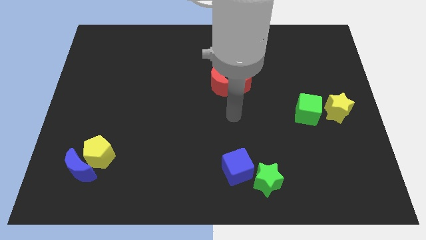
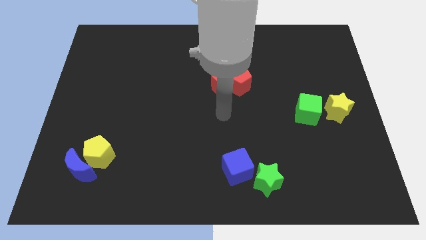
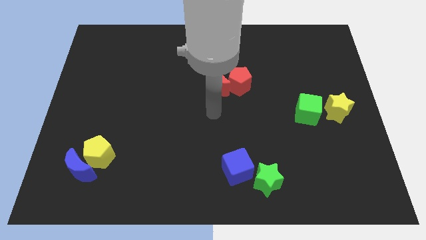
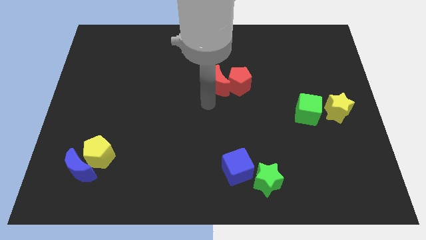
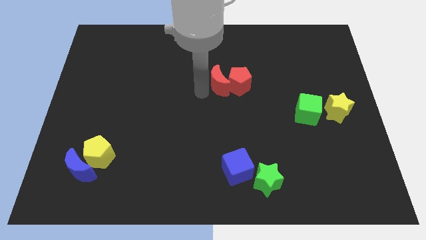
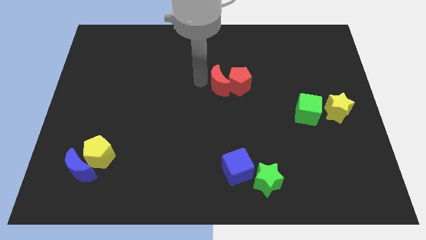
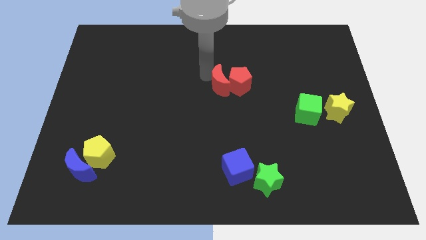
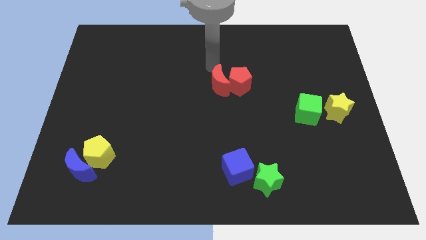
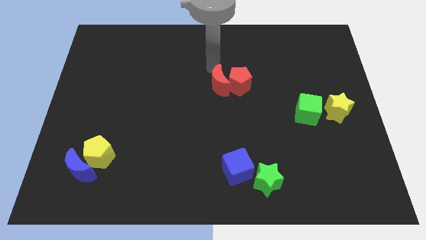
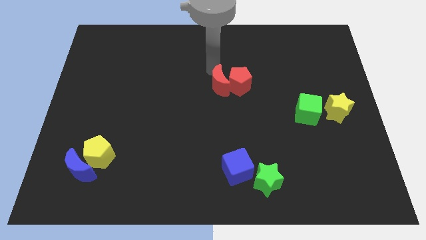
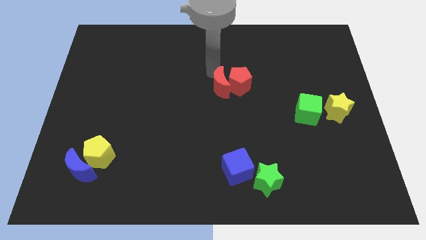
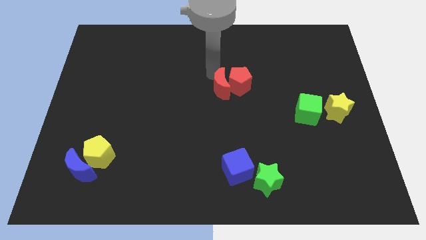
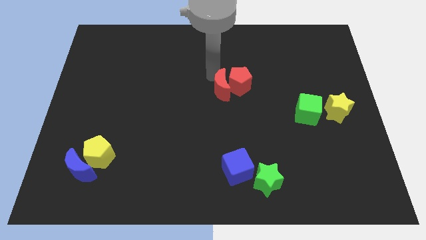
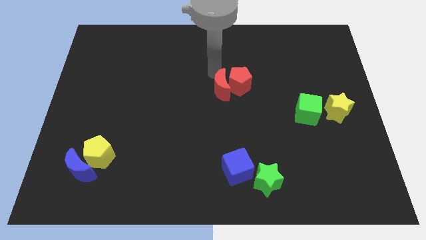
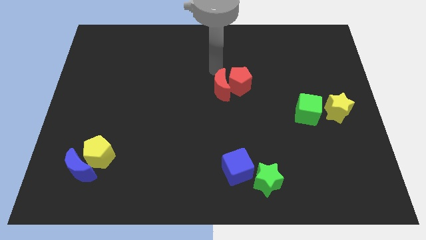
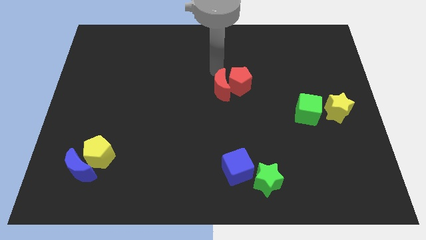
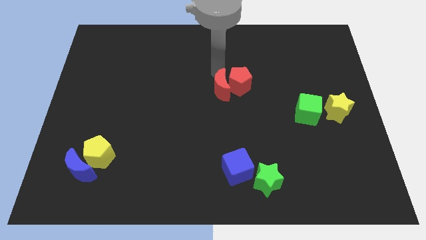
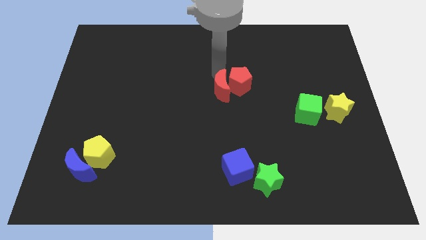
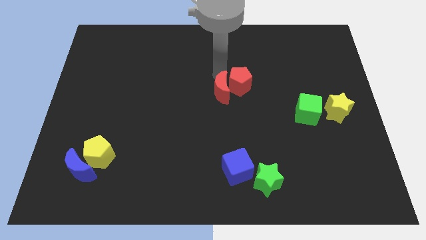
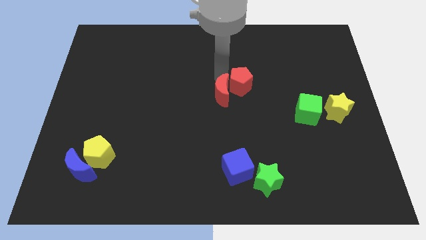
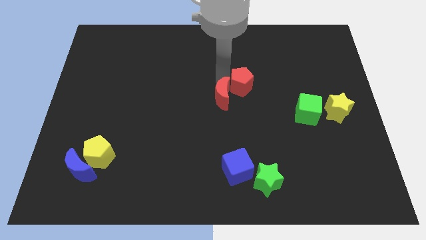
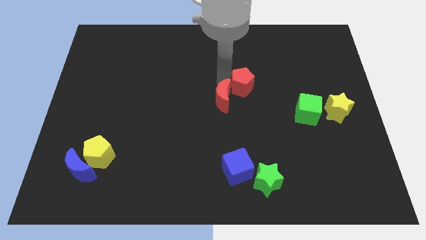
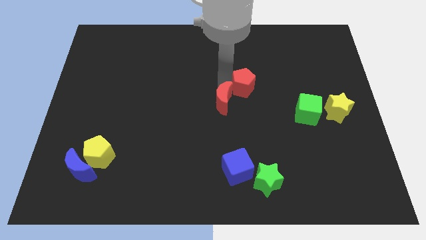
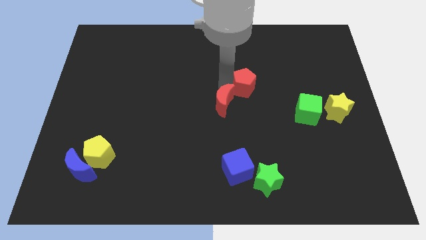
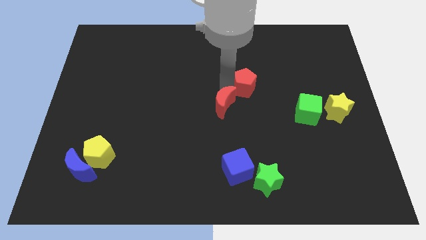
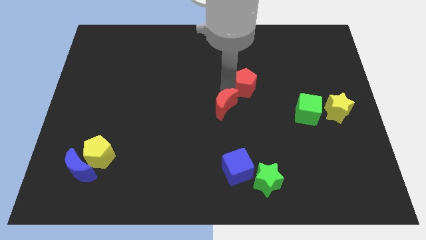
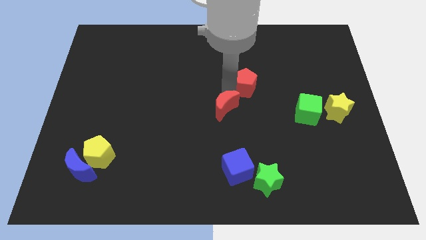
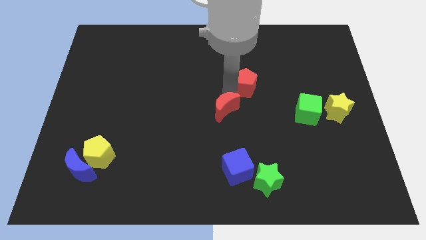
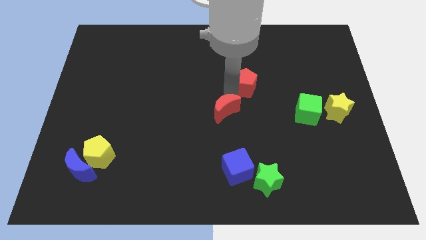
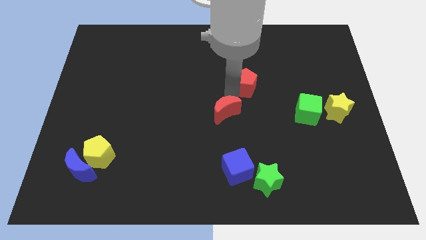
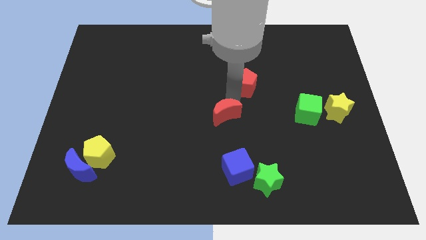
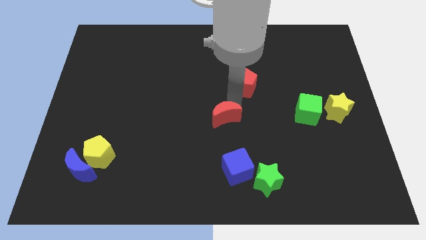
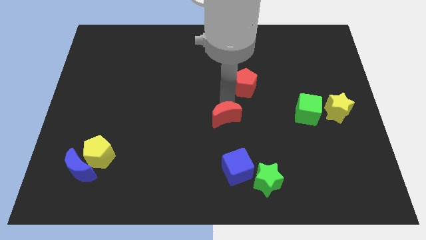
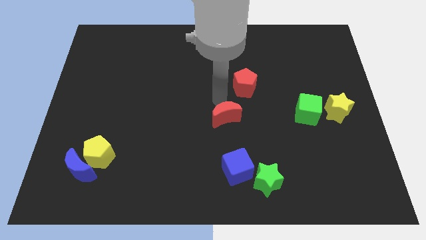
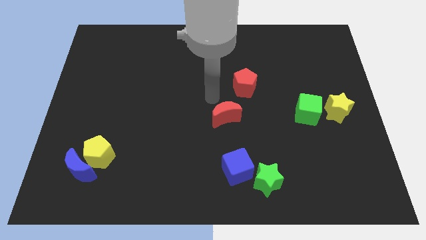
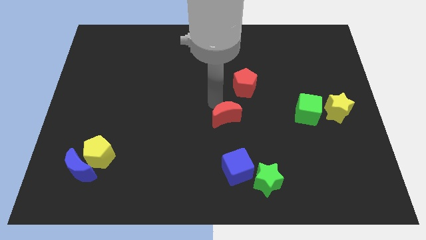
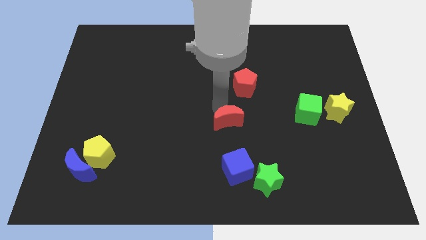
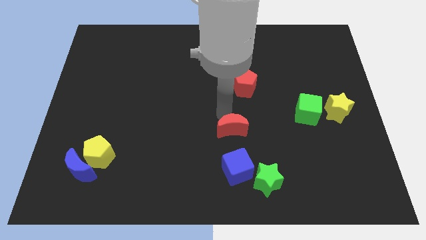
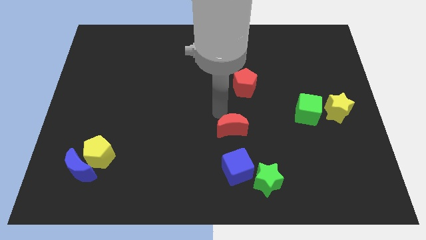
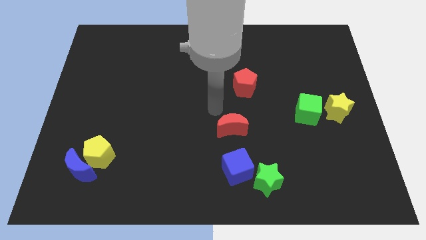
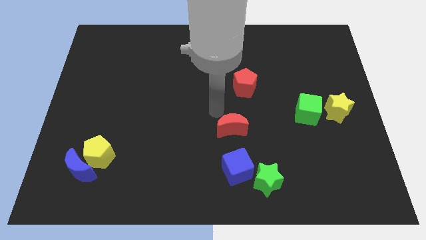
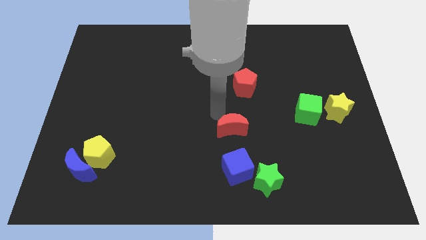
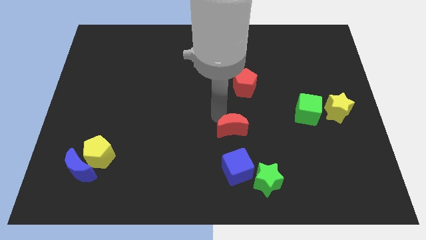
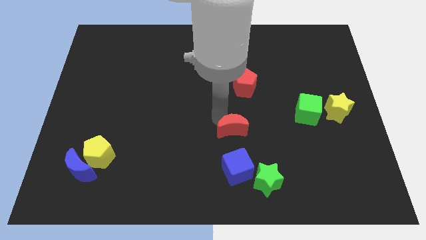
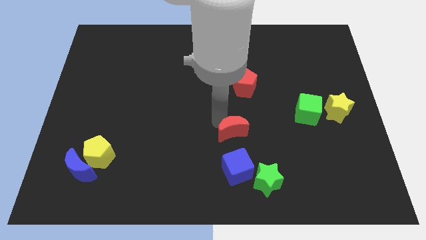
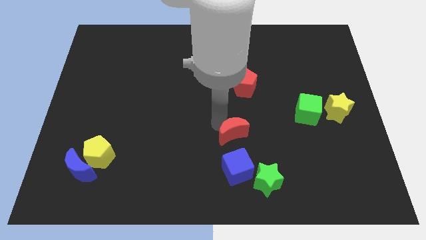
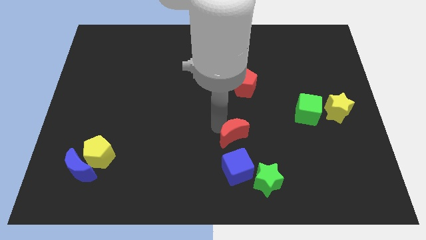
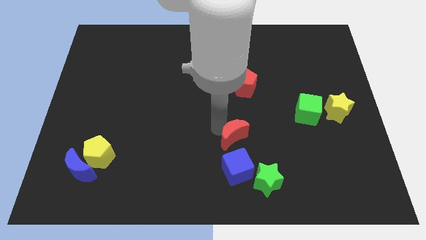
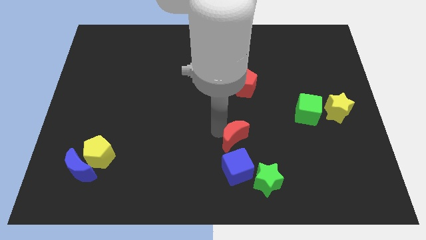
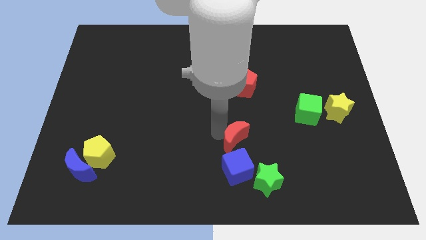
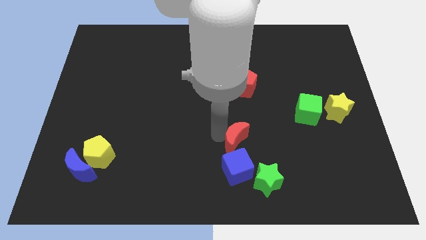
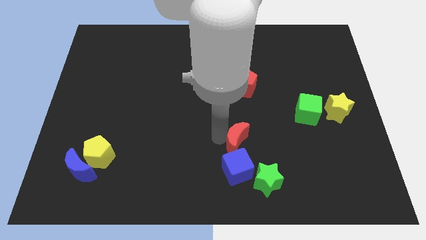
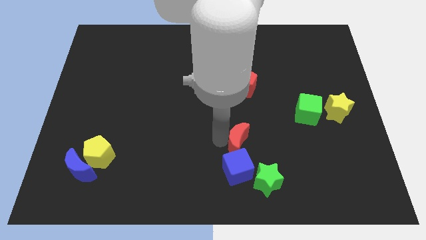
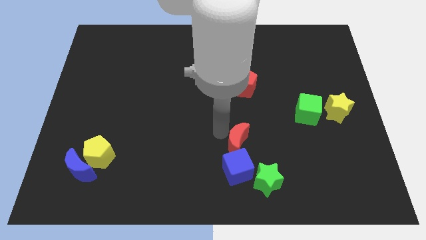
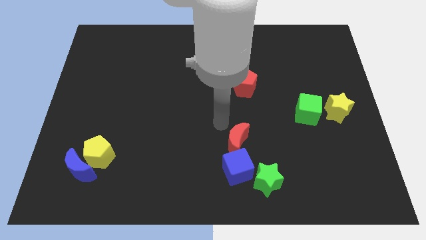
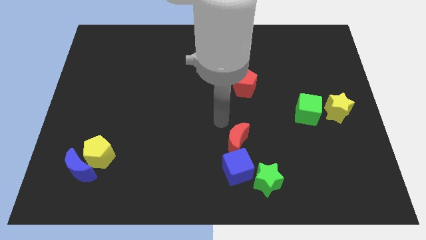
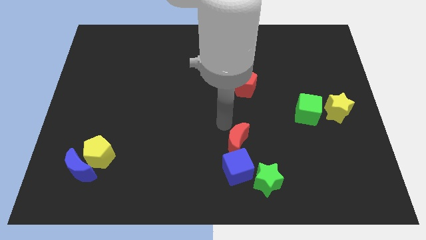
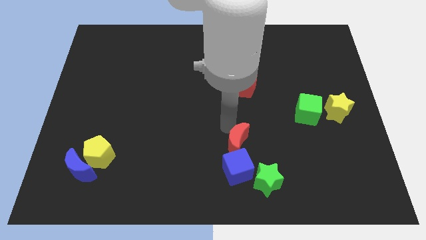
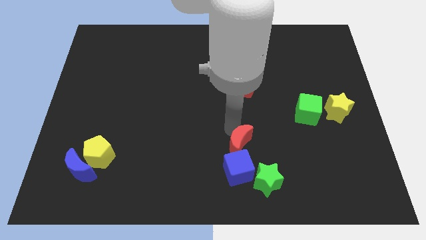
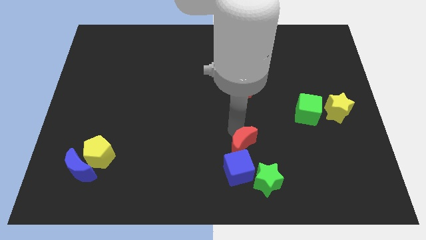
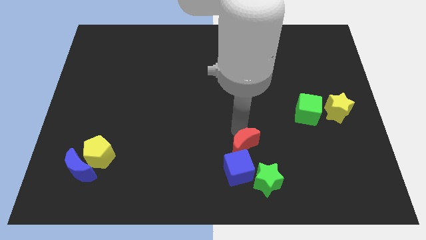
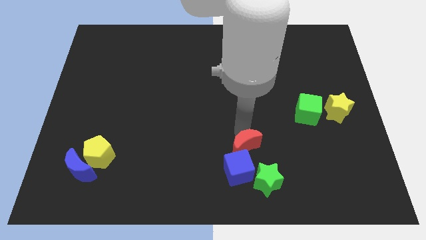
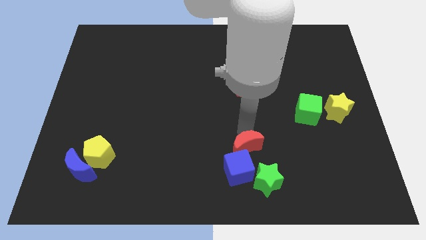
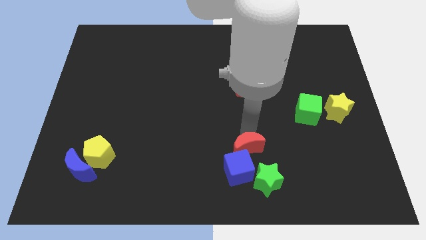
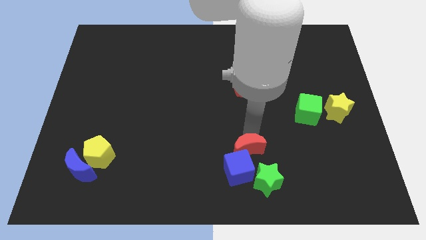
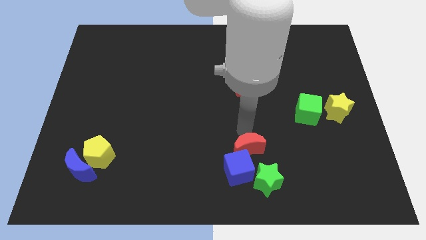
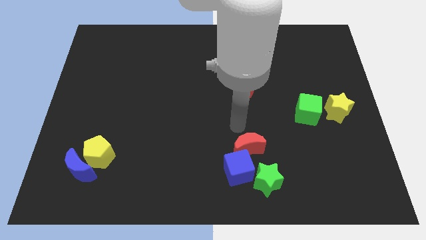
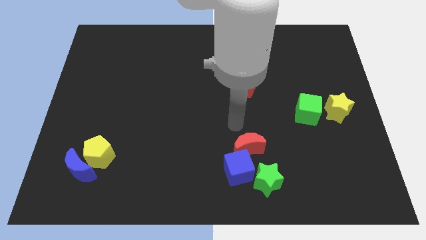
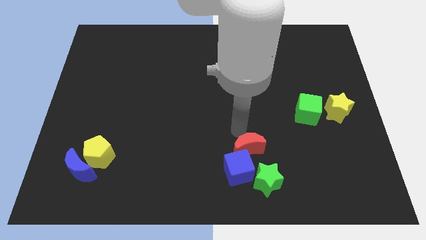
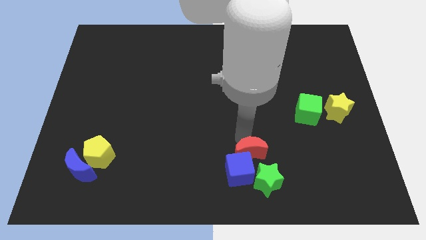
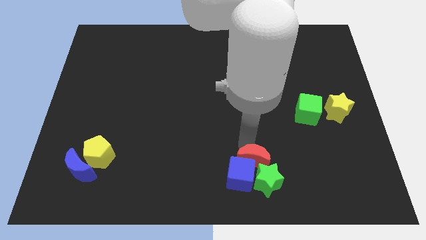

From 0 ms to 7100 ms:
slide the red moon next to the green star
